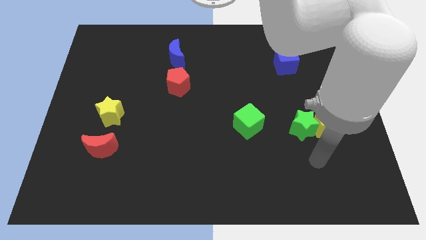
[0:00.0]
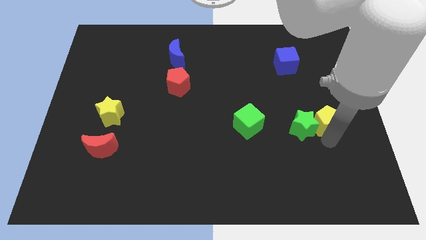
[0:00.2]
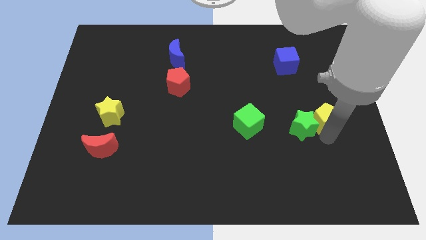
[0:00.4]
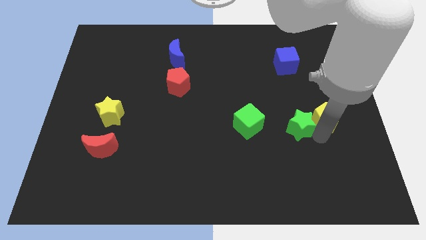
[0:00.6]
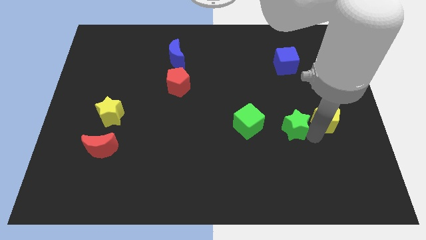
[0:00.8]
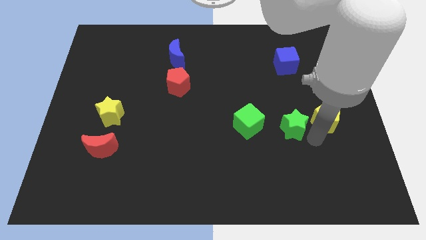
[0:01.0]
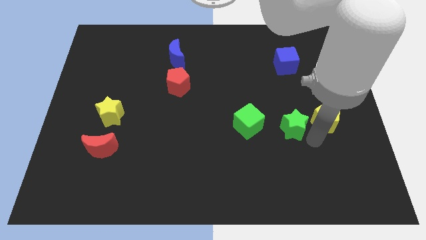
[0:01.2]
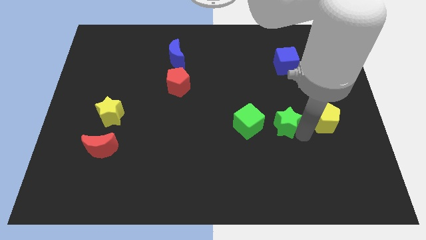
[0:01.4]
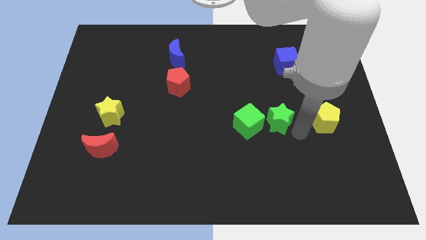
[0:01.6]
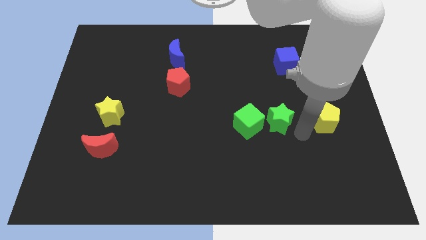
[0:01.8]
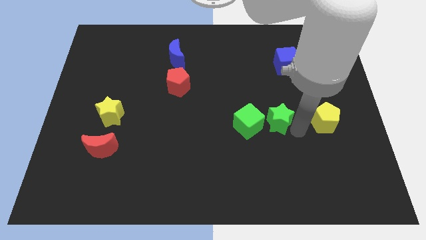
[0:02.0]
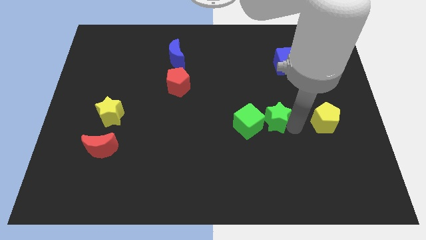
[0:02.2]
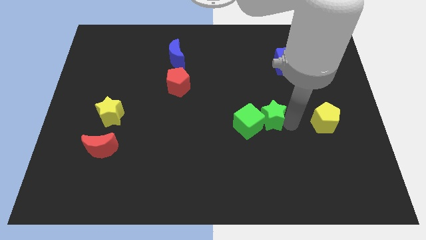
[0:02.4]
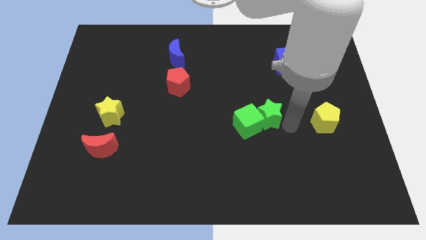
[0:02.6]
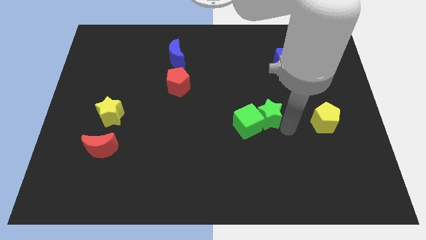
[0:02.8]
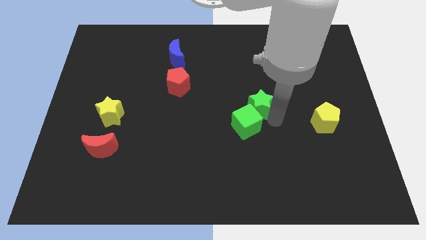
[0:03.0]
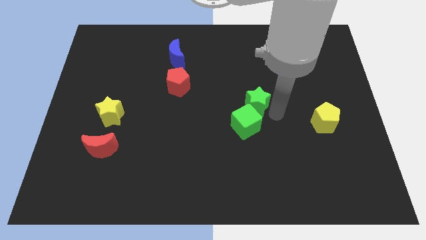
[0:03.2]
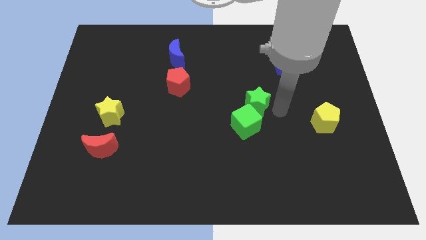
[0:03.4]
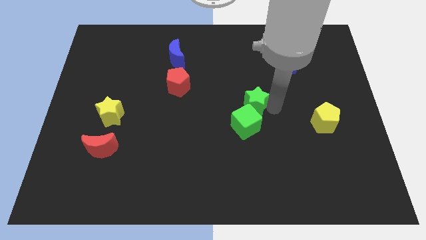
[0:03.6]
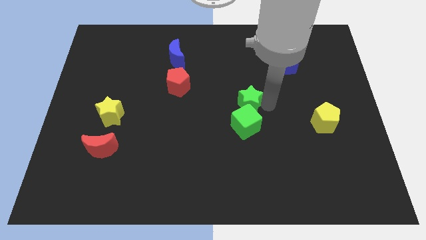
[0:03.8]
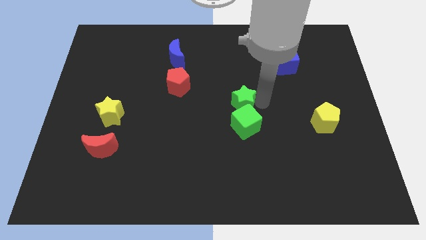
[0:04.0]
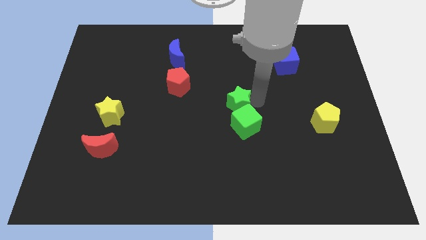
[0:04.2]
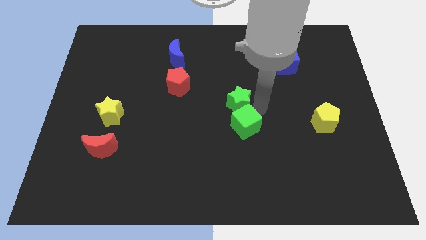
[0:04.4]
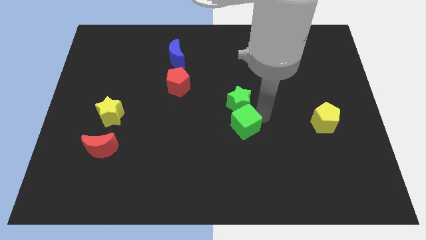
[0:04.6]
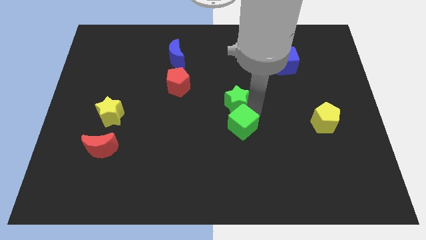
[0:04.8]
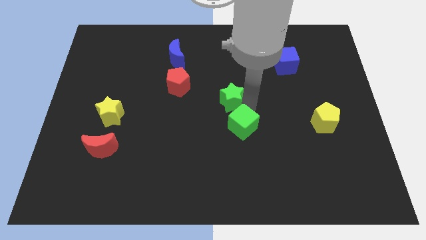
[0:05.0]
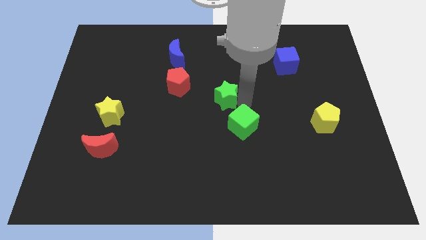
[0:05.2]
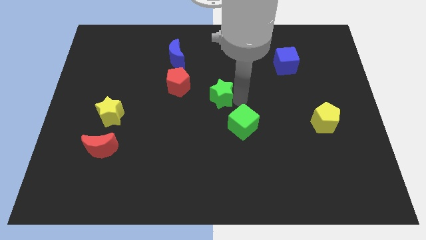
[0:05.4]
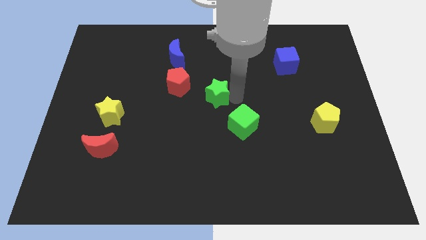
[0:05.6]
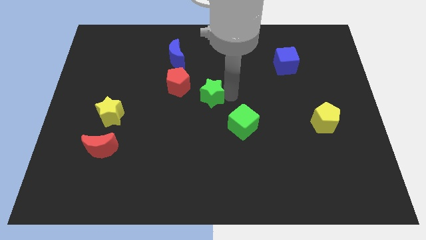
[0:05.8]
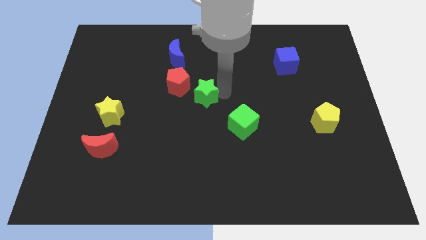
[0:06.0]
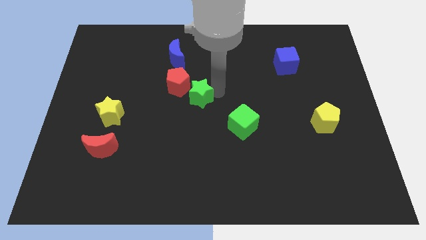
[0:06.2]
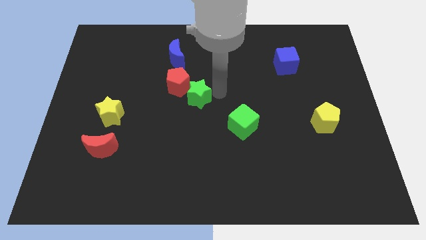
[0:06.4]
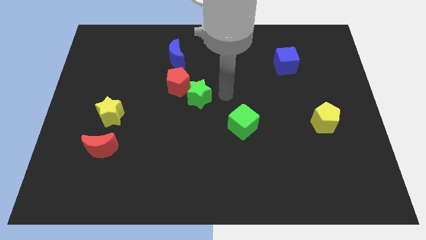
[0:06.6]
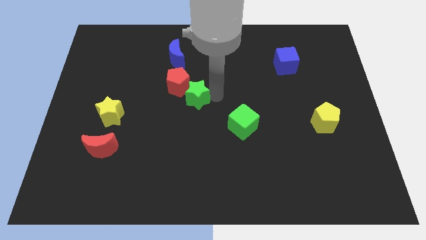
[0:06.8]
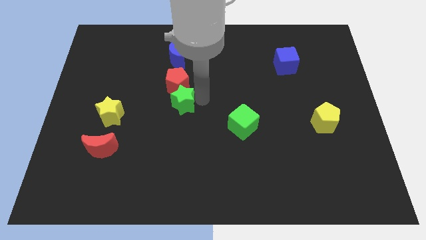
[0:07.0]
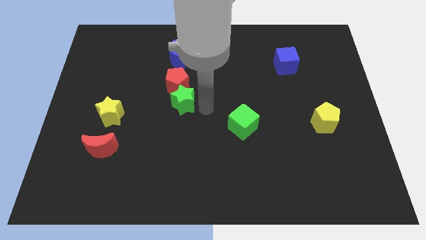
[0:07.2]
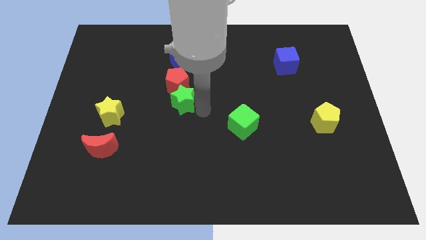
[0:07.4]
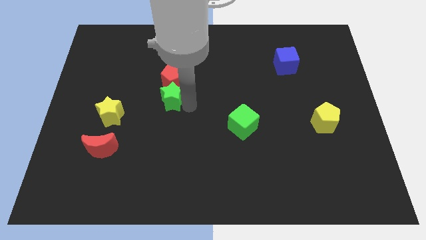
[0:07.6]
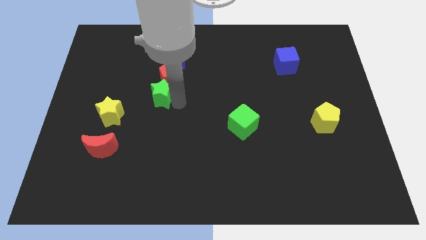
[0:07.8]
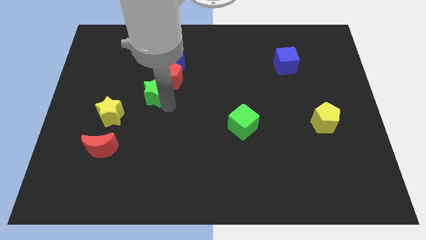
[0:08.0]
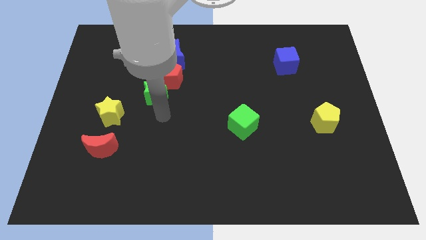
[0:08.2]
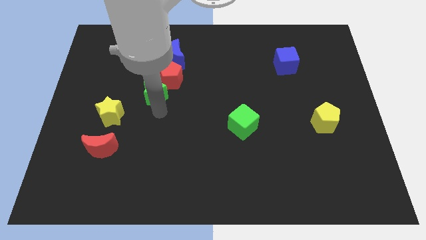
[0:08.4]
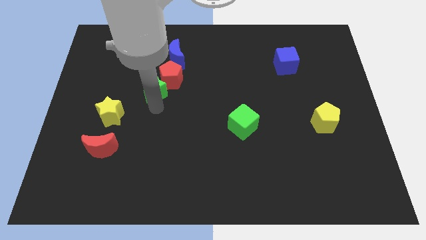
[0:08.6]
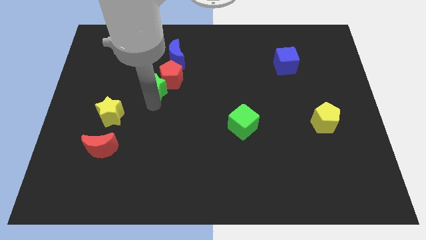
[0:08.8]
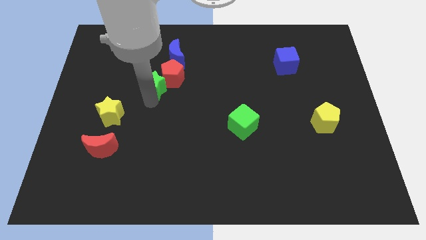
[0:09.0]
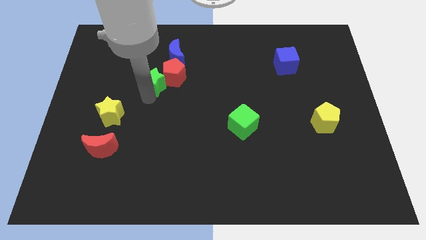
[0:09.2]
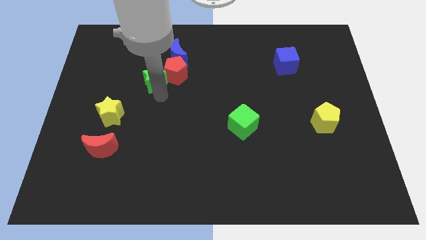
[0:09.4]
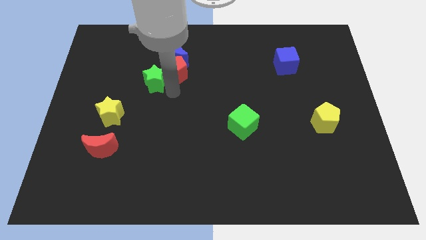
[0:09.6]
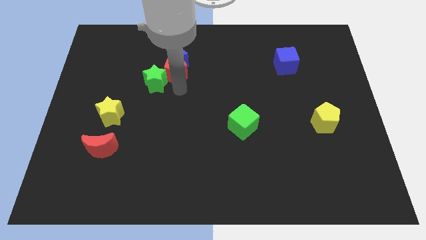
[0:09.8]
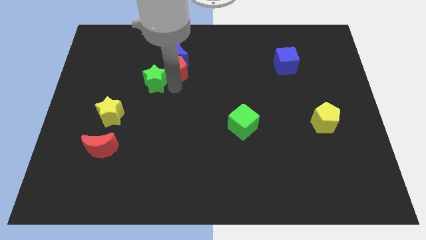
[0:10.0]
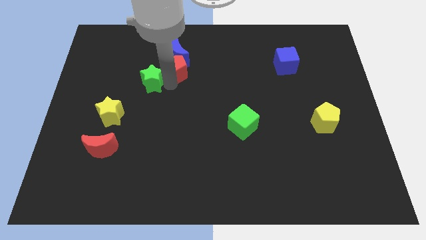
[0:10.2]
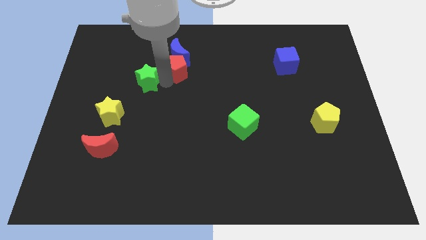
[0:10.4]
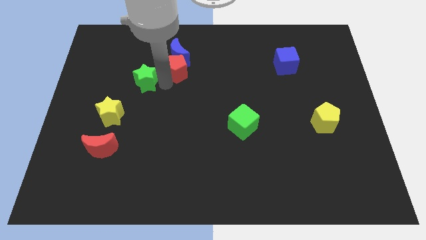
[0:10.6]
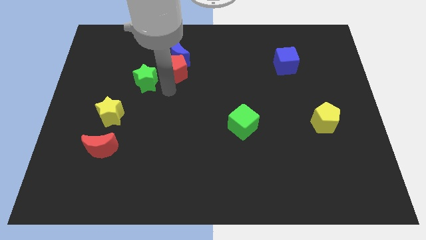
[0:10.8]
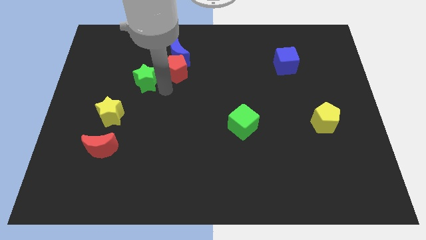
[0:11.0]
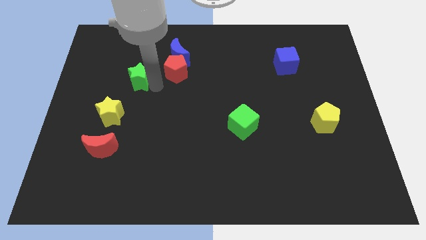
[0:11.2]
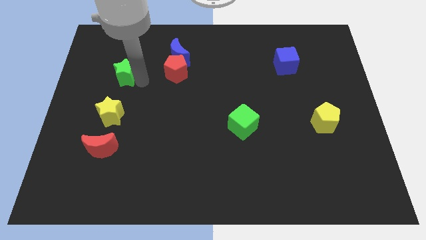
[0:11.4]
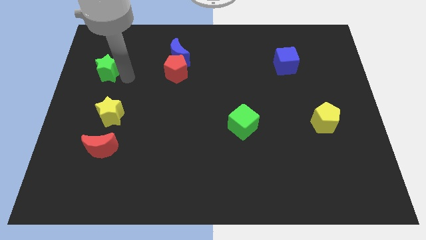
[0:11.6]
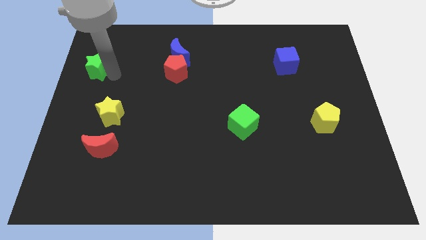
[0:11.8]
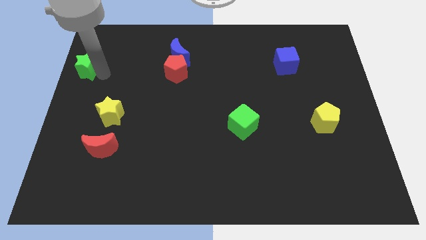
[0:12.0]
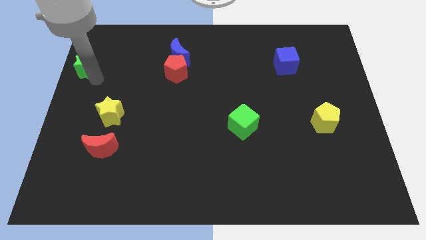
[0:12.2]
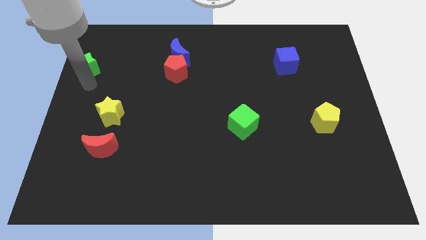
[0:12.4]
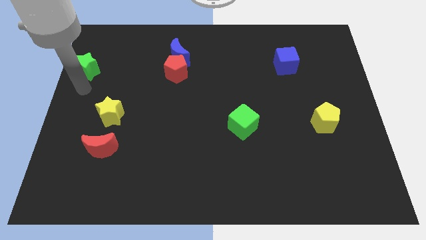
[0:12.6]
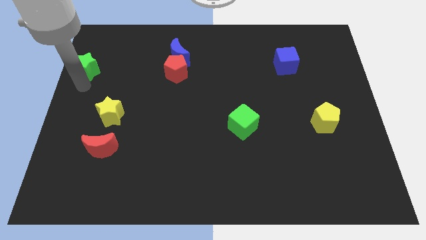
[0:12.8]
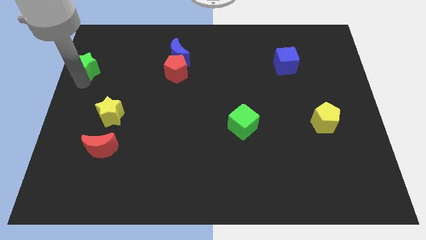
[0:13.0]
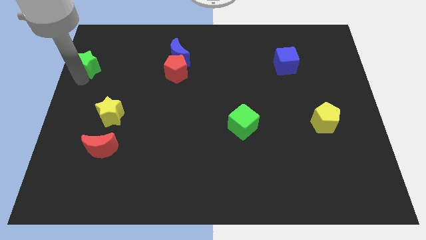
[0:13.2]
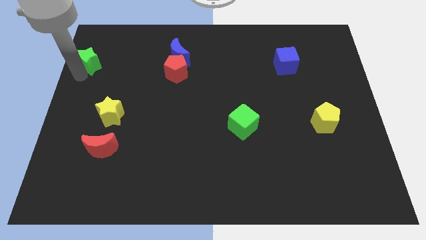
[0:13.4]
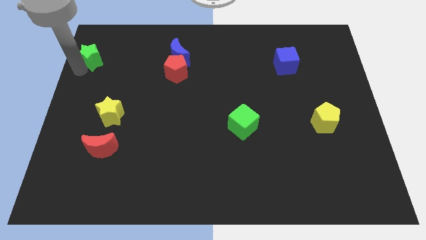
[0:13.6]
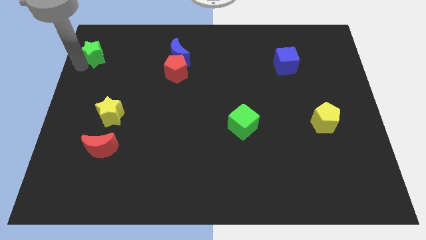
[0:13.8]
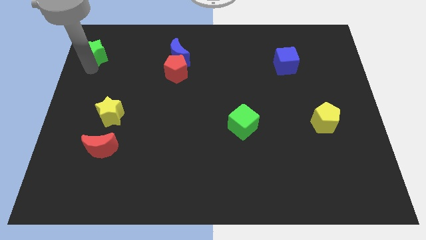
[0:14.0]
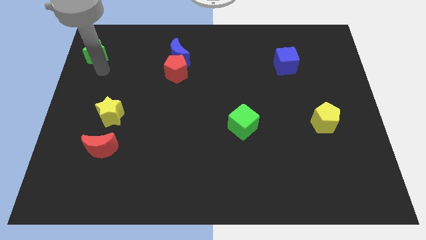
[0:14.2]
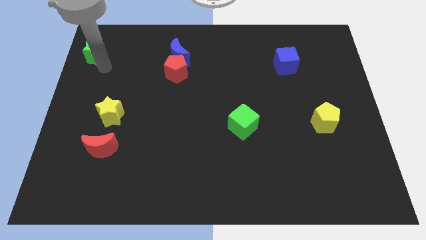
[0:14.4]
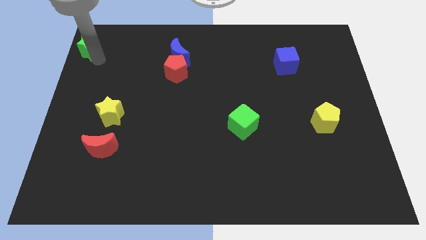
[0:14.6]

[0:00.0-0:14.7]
push the green star to the upper left corner
